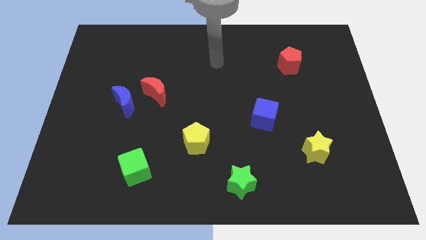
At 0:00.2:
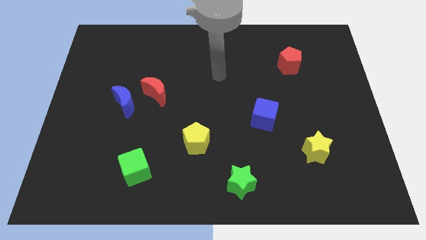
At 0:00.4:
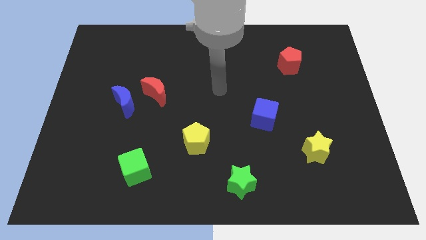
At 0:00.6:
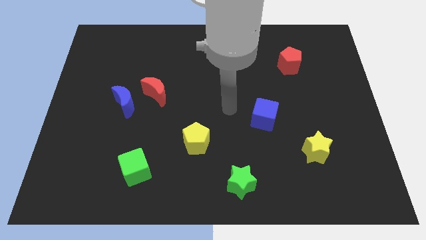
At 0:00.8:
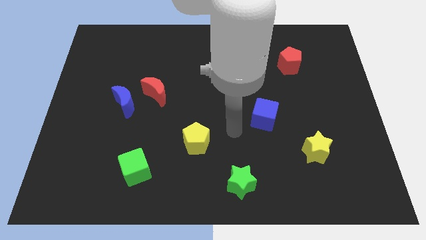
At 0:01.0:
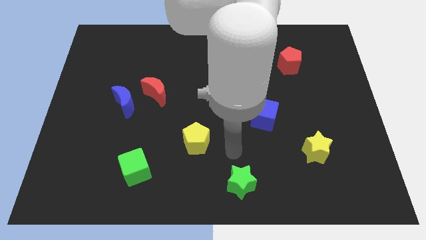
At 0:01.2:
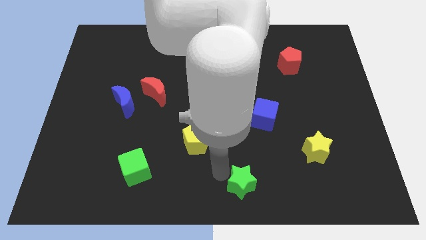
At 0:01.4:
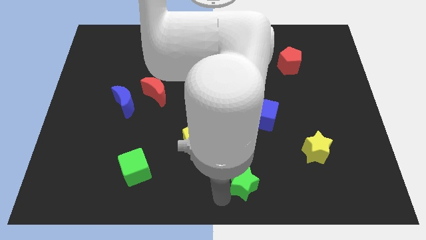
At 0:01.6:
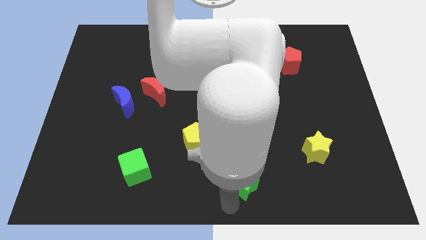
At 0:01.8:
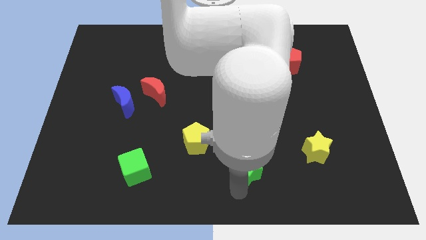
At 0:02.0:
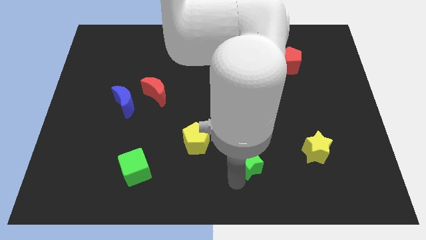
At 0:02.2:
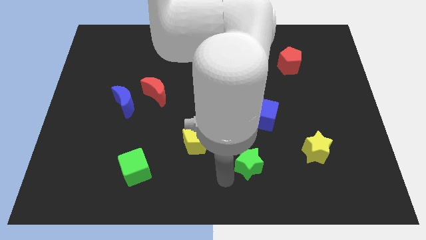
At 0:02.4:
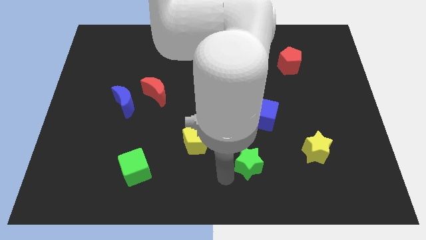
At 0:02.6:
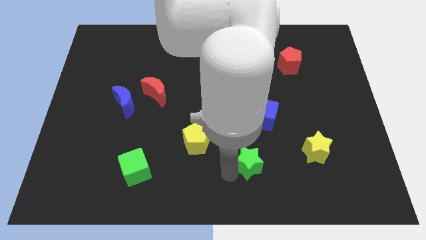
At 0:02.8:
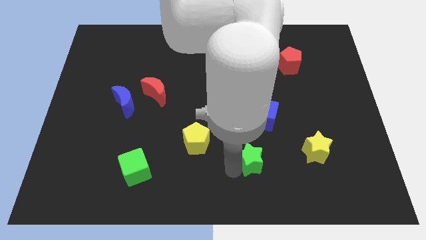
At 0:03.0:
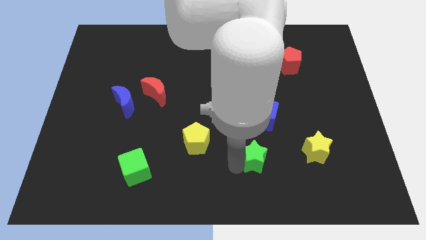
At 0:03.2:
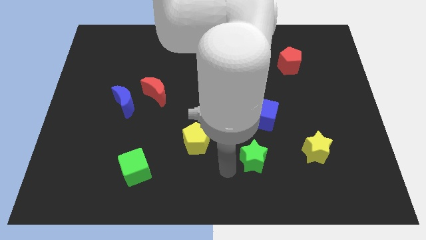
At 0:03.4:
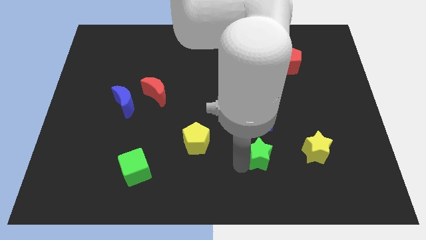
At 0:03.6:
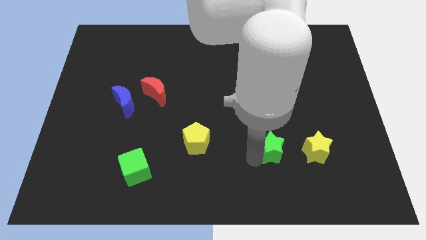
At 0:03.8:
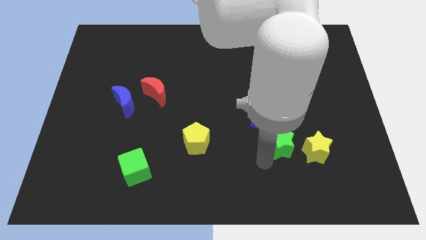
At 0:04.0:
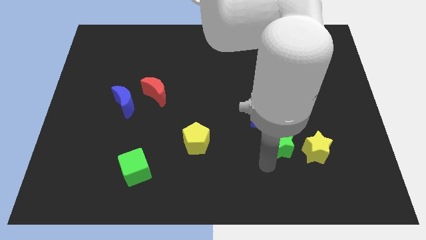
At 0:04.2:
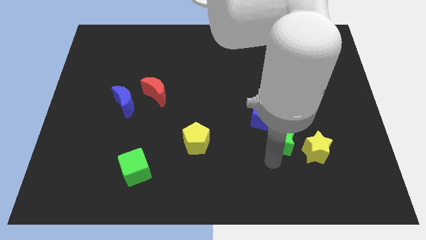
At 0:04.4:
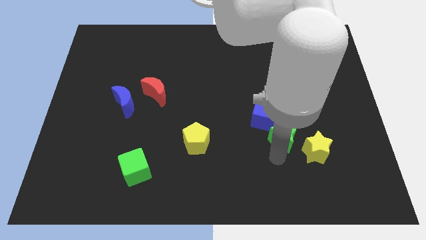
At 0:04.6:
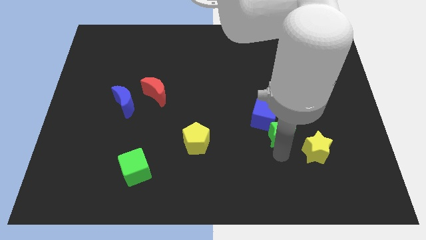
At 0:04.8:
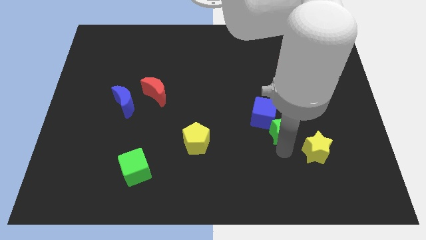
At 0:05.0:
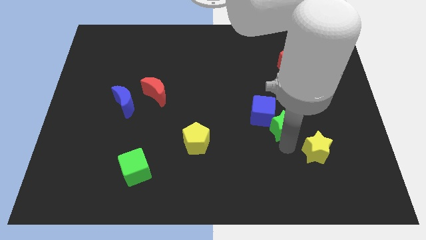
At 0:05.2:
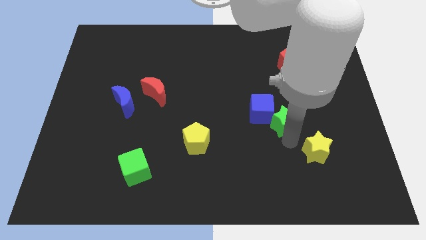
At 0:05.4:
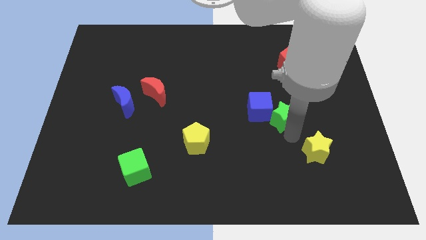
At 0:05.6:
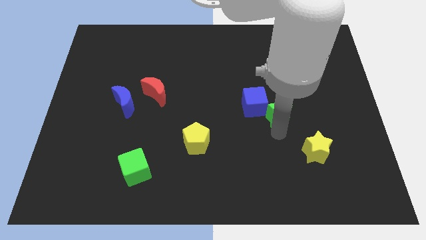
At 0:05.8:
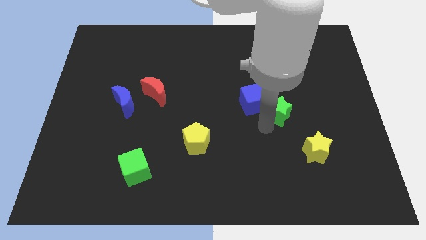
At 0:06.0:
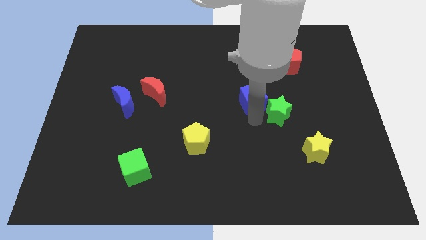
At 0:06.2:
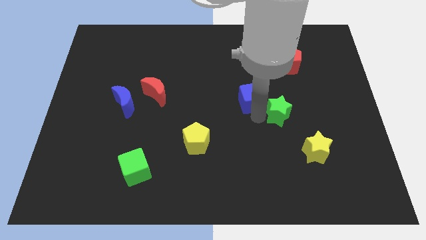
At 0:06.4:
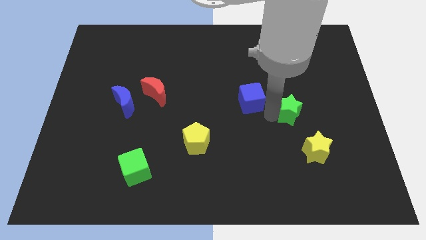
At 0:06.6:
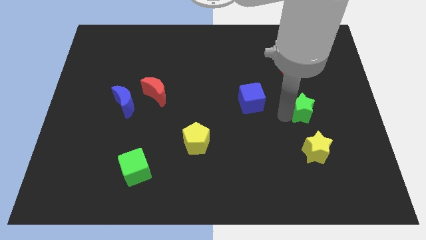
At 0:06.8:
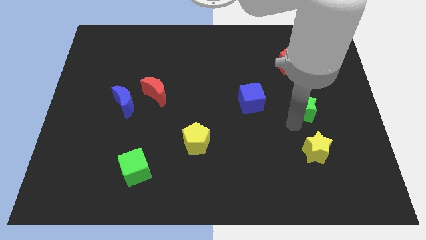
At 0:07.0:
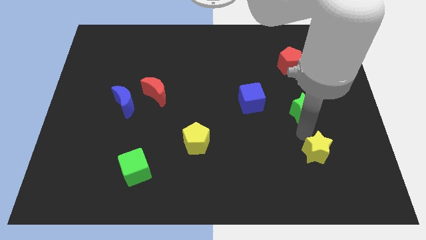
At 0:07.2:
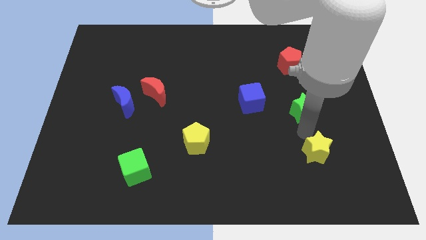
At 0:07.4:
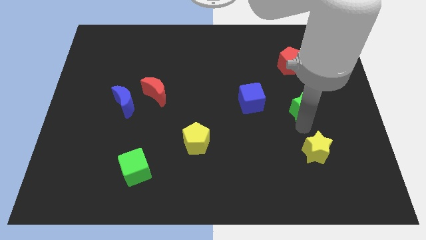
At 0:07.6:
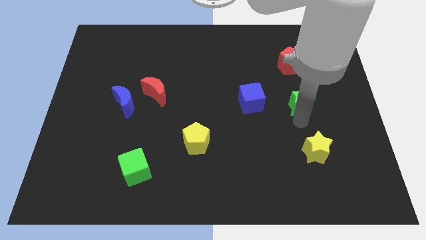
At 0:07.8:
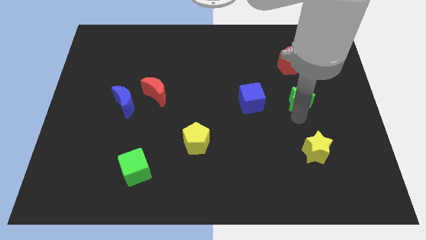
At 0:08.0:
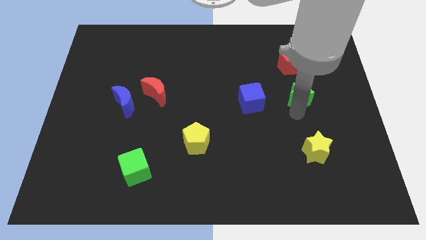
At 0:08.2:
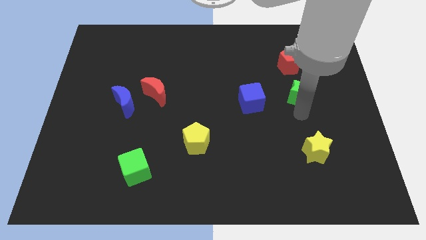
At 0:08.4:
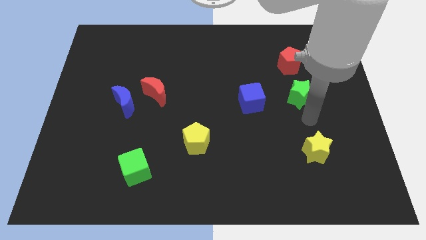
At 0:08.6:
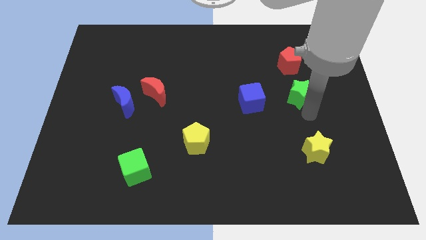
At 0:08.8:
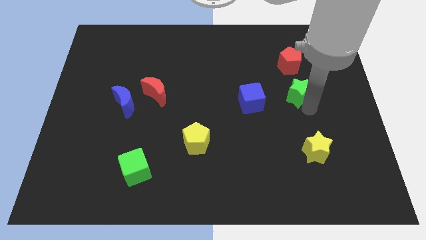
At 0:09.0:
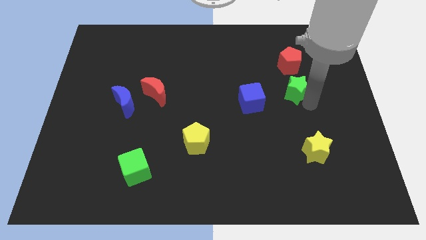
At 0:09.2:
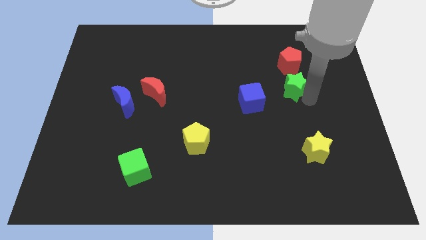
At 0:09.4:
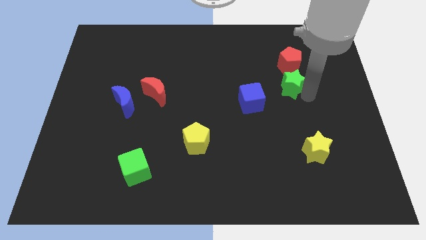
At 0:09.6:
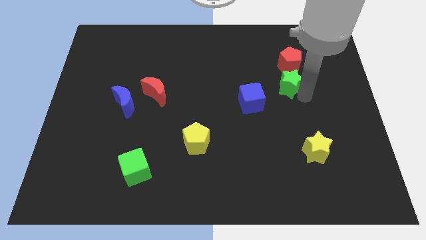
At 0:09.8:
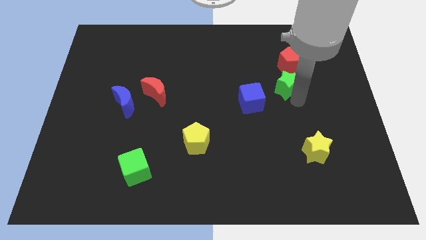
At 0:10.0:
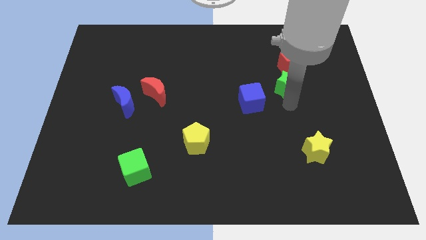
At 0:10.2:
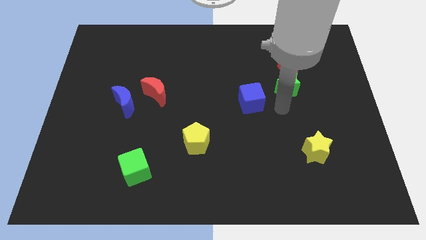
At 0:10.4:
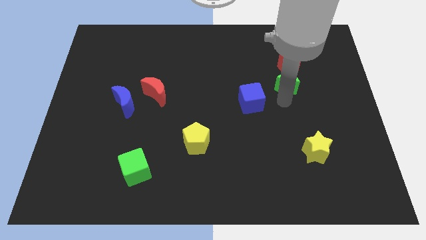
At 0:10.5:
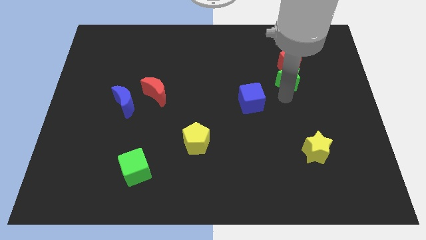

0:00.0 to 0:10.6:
move the green star towards the red pentagon

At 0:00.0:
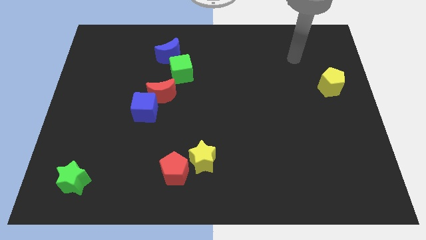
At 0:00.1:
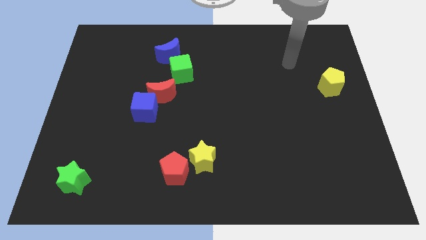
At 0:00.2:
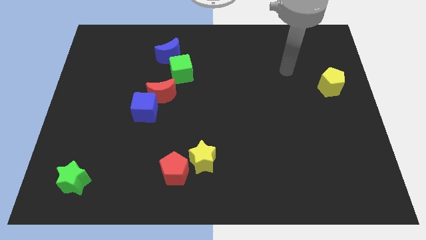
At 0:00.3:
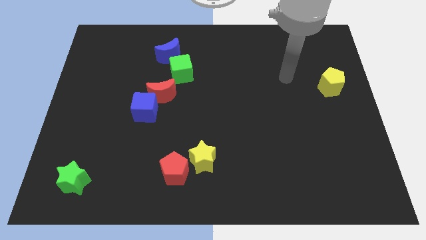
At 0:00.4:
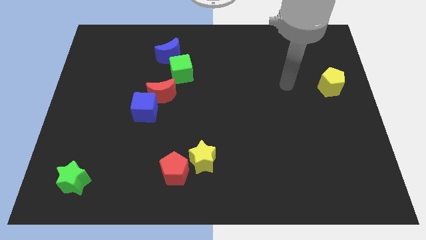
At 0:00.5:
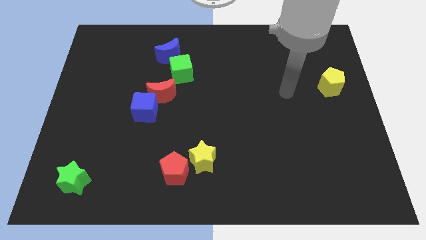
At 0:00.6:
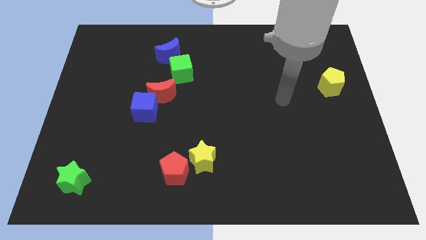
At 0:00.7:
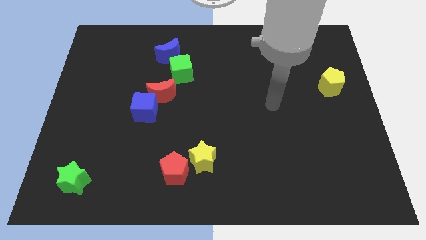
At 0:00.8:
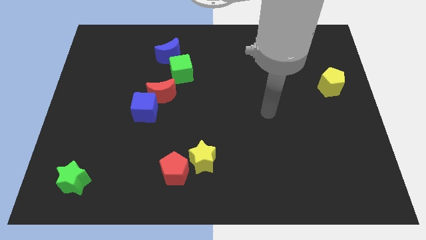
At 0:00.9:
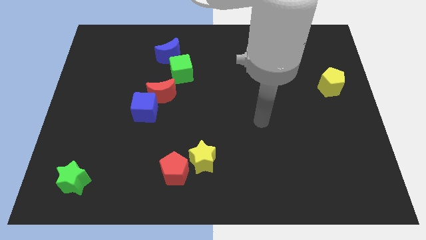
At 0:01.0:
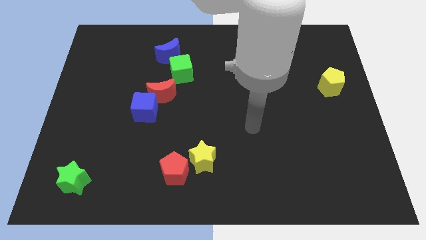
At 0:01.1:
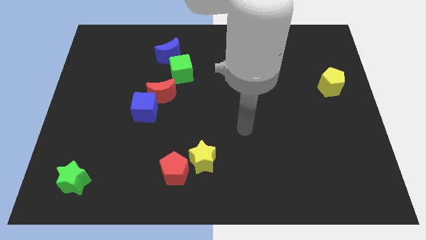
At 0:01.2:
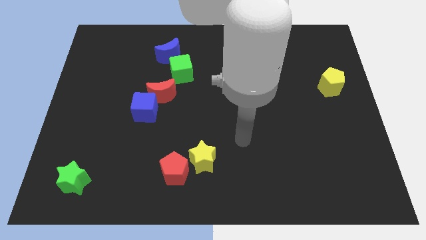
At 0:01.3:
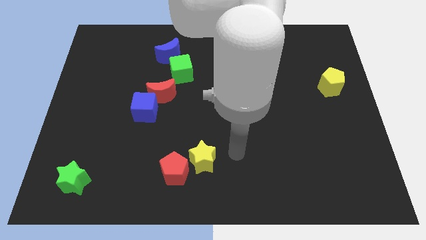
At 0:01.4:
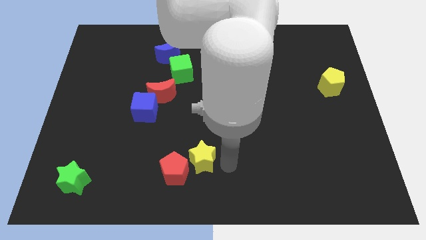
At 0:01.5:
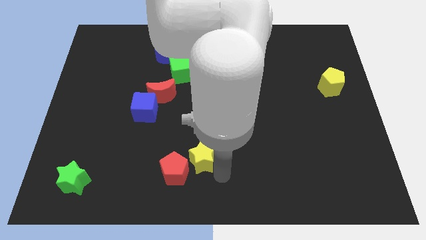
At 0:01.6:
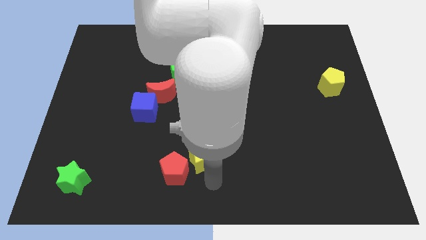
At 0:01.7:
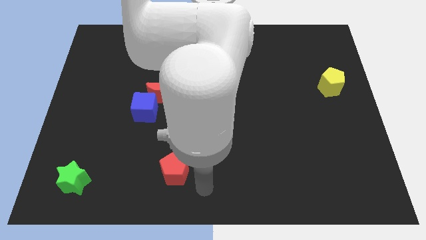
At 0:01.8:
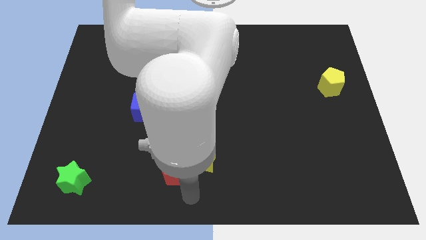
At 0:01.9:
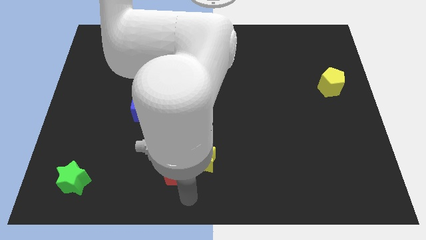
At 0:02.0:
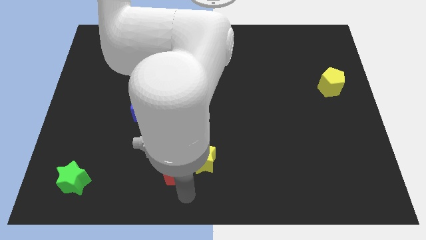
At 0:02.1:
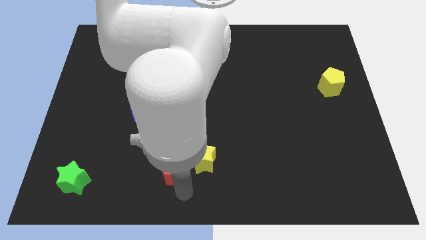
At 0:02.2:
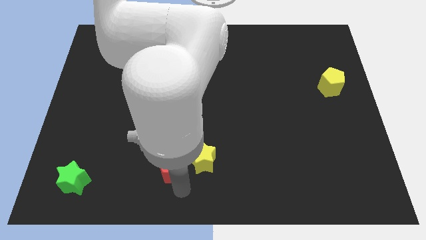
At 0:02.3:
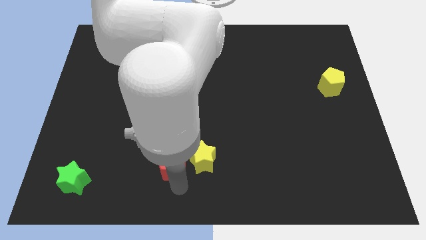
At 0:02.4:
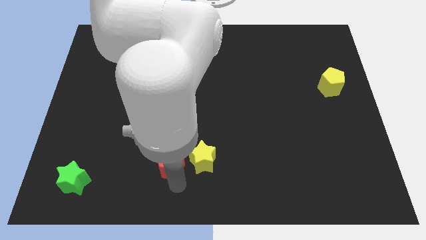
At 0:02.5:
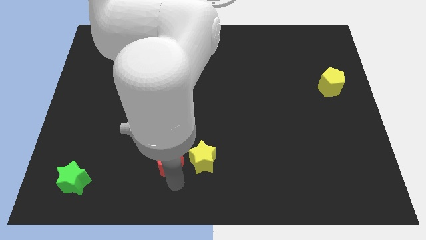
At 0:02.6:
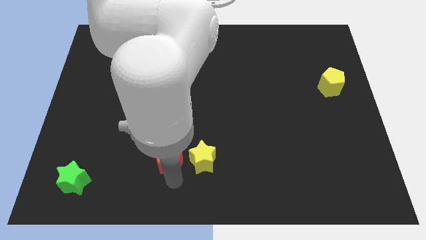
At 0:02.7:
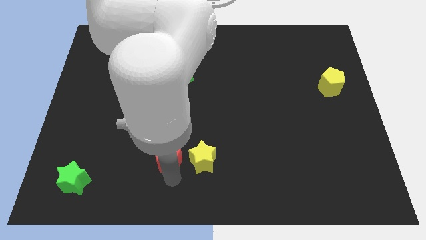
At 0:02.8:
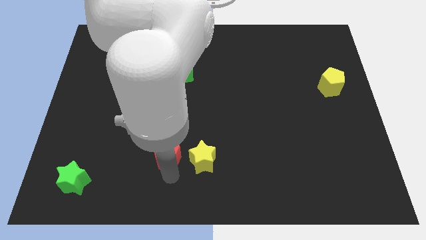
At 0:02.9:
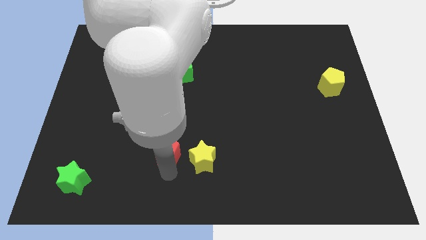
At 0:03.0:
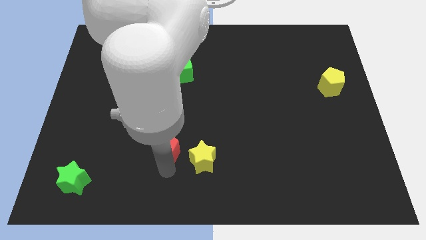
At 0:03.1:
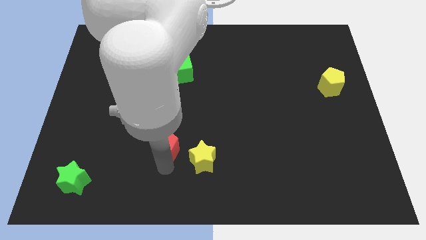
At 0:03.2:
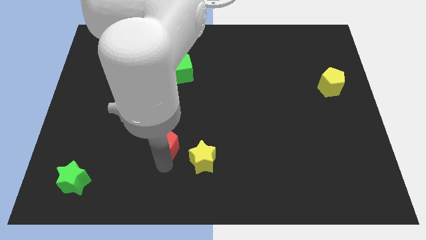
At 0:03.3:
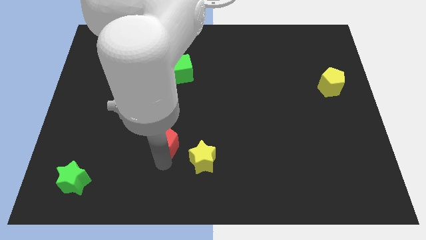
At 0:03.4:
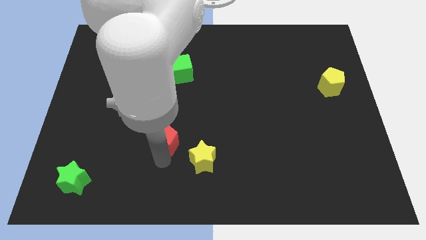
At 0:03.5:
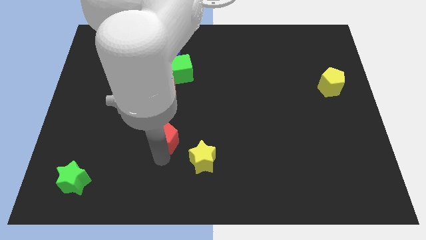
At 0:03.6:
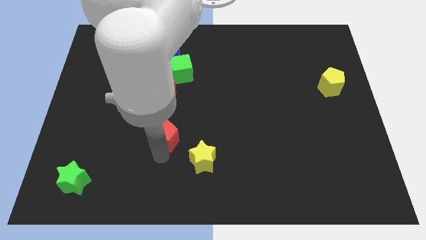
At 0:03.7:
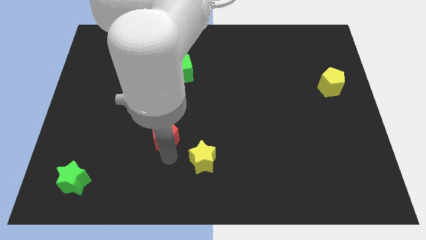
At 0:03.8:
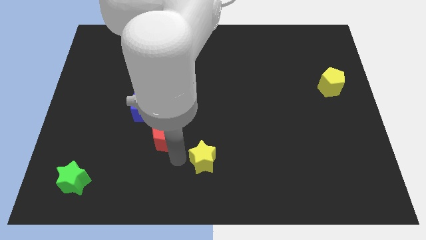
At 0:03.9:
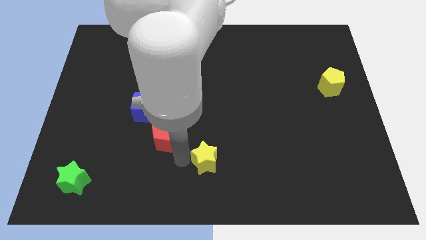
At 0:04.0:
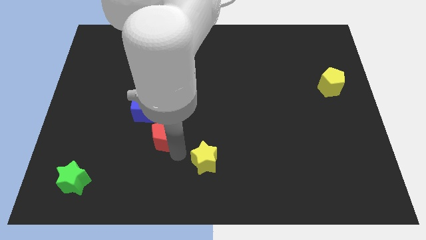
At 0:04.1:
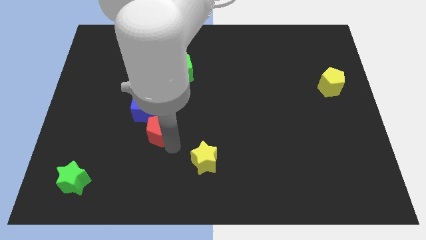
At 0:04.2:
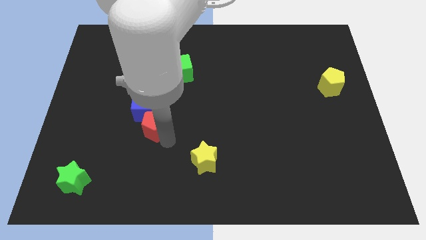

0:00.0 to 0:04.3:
move the red pentagon towards the blue cube
